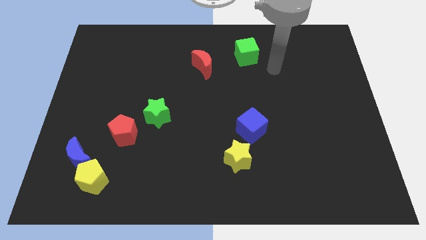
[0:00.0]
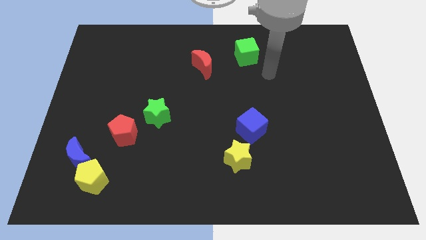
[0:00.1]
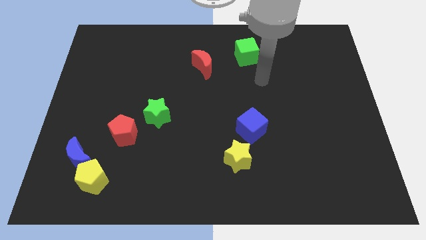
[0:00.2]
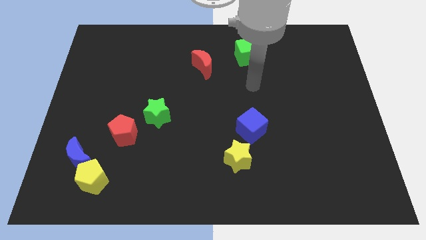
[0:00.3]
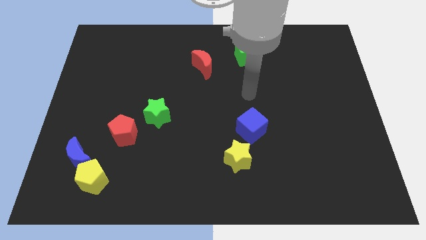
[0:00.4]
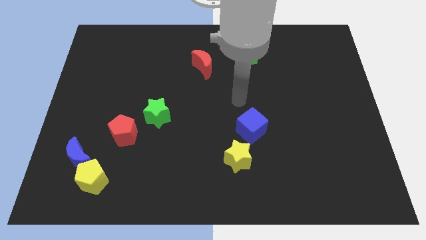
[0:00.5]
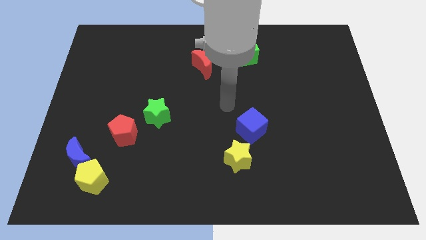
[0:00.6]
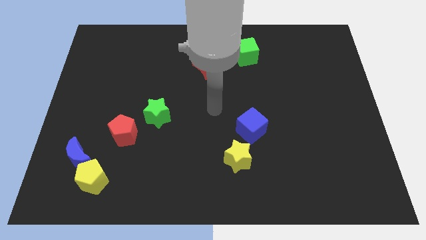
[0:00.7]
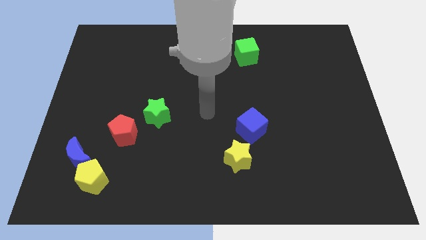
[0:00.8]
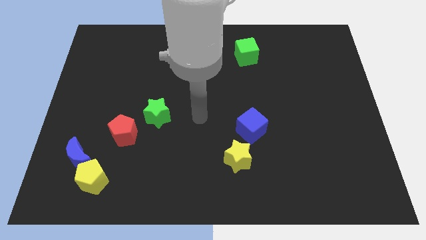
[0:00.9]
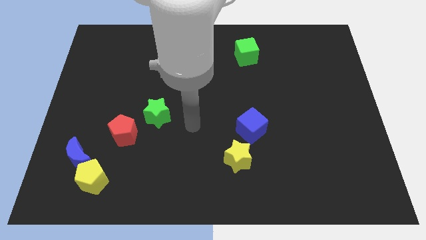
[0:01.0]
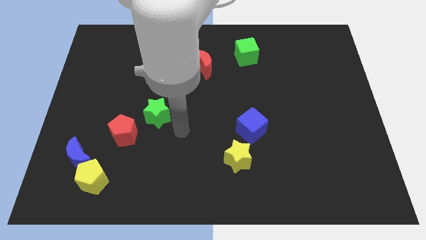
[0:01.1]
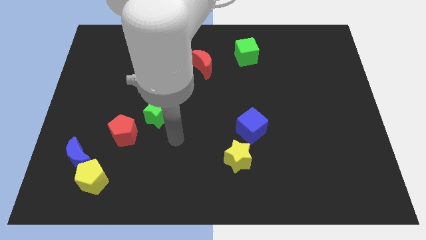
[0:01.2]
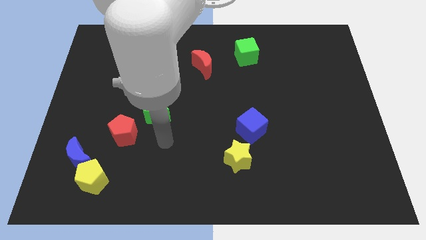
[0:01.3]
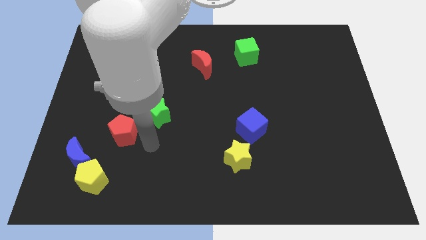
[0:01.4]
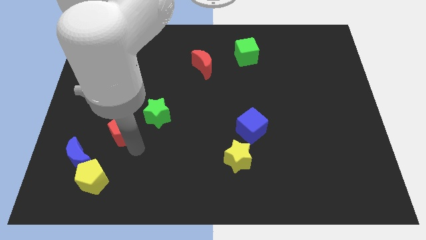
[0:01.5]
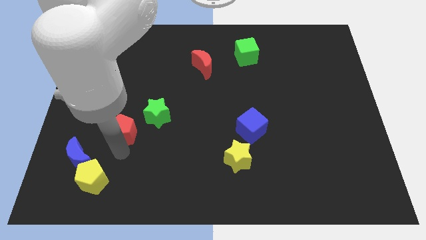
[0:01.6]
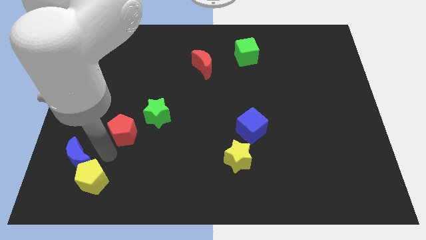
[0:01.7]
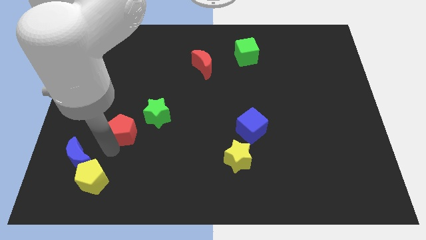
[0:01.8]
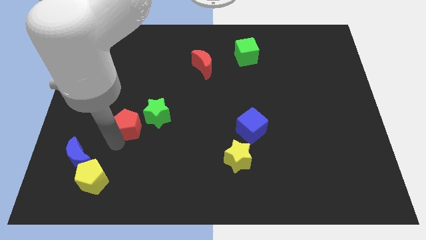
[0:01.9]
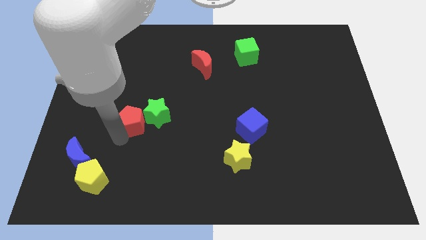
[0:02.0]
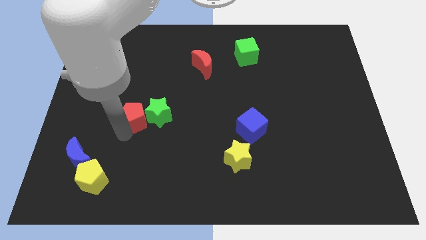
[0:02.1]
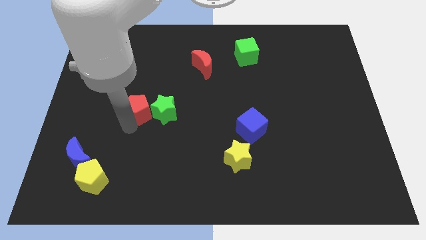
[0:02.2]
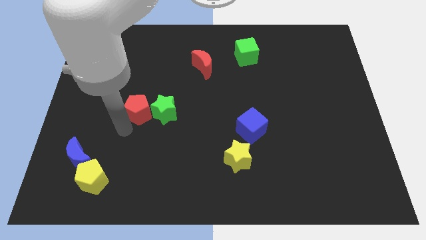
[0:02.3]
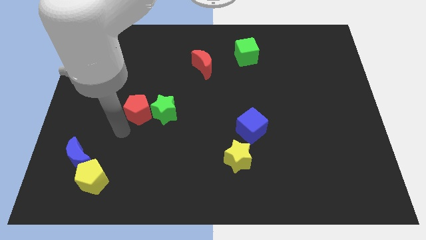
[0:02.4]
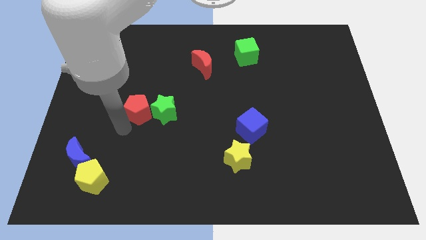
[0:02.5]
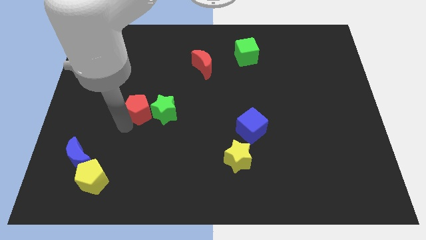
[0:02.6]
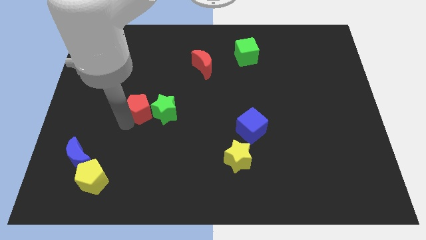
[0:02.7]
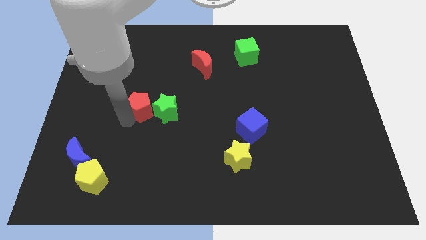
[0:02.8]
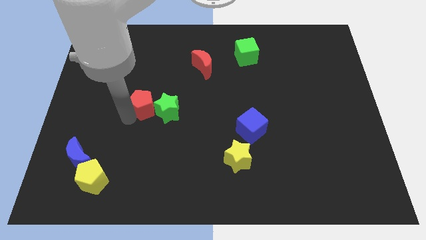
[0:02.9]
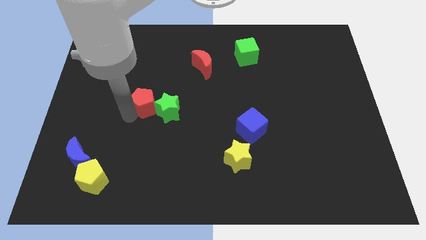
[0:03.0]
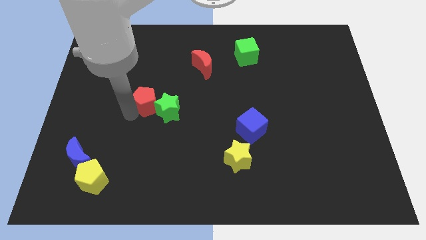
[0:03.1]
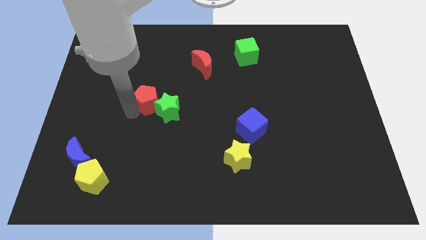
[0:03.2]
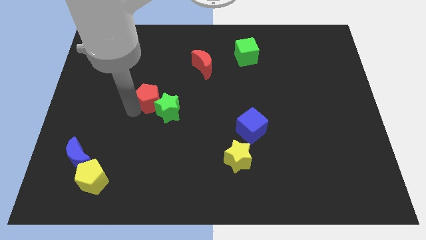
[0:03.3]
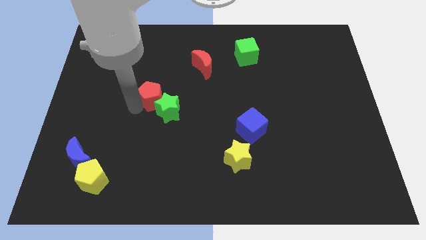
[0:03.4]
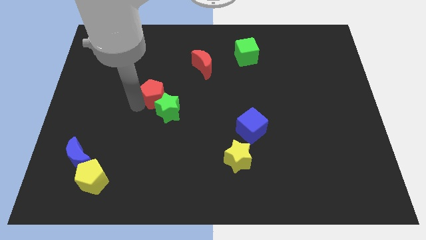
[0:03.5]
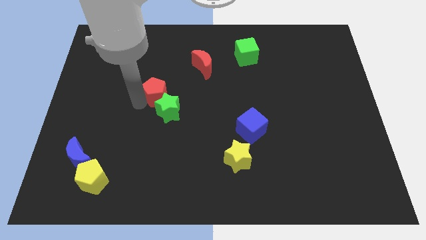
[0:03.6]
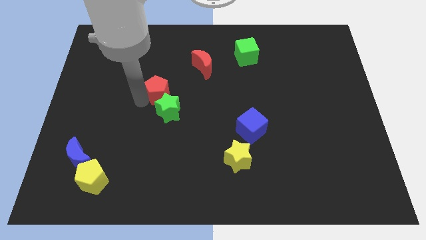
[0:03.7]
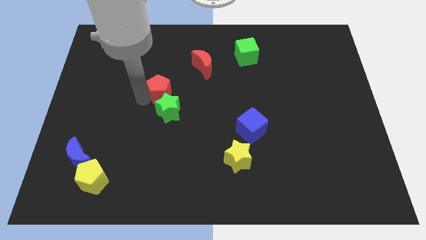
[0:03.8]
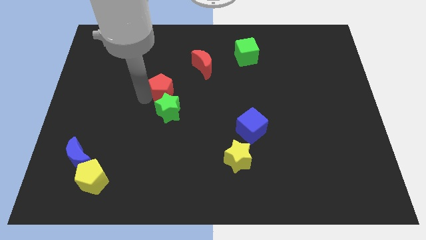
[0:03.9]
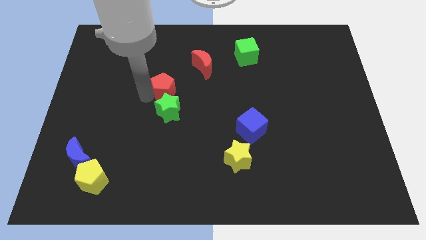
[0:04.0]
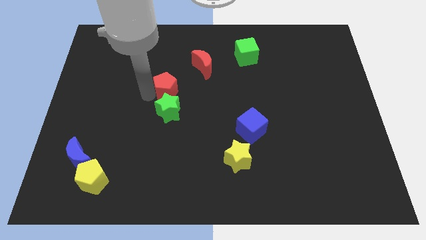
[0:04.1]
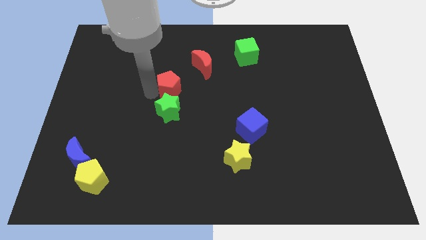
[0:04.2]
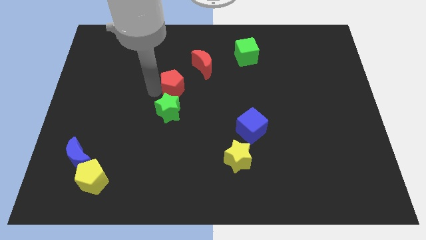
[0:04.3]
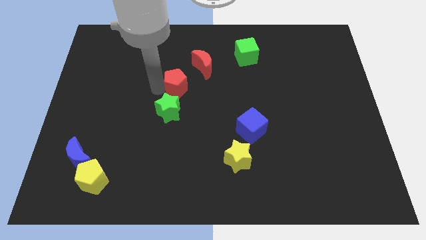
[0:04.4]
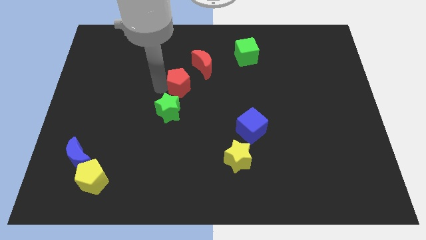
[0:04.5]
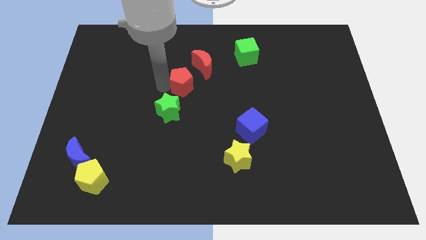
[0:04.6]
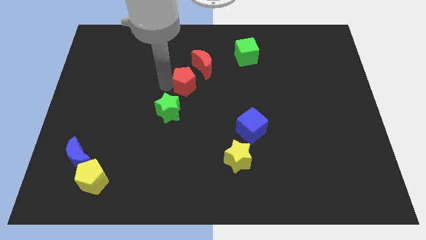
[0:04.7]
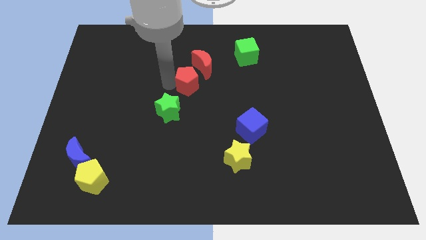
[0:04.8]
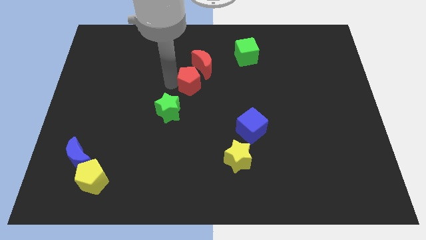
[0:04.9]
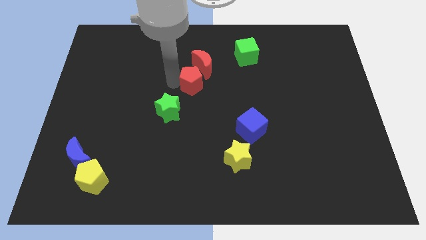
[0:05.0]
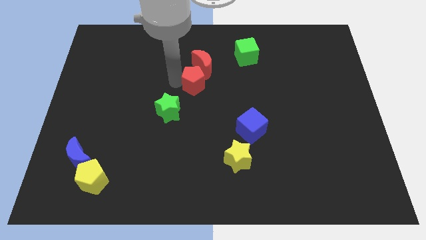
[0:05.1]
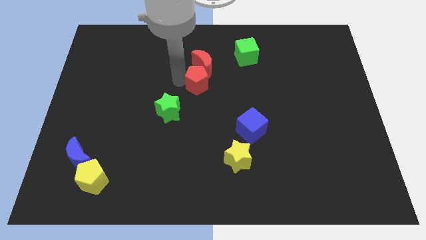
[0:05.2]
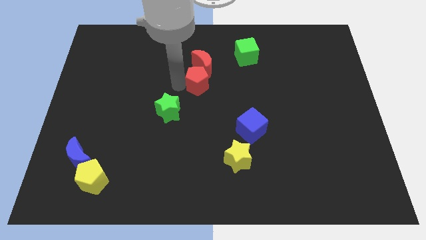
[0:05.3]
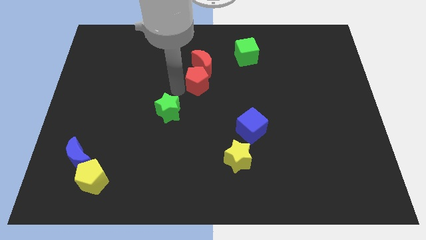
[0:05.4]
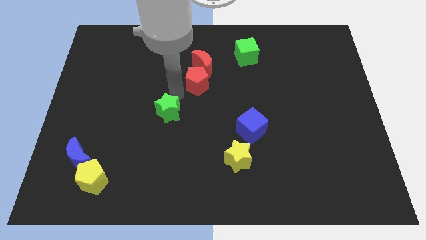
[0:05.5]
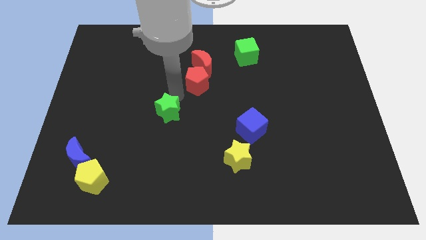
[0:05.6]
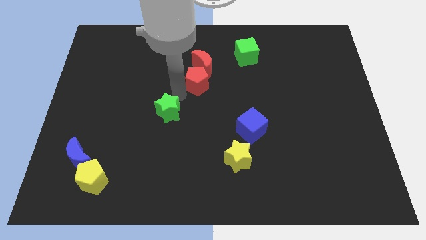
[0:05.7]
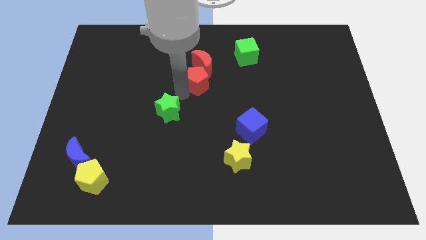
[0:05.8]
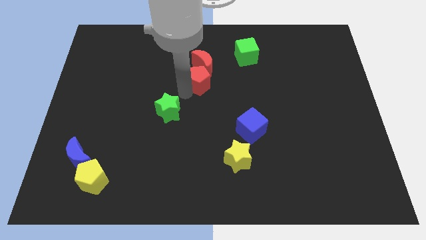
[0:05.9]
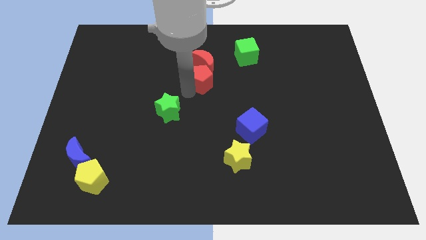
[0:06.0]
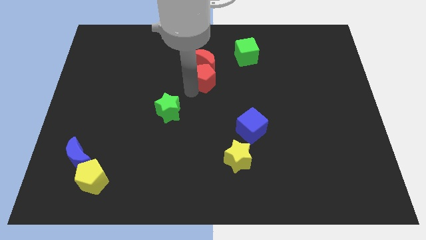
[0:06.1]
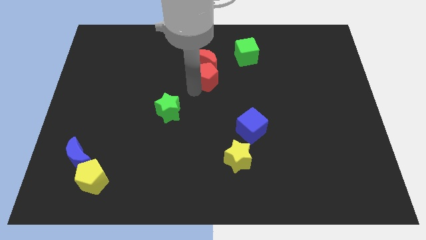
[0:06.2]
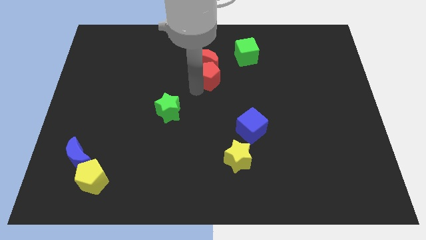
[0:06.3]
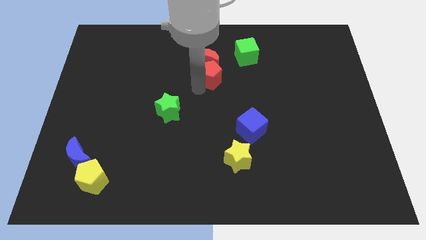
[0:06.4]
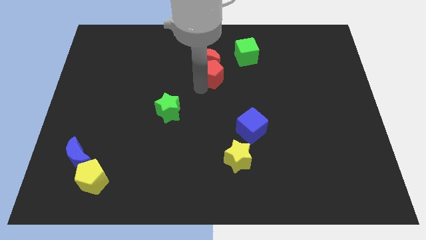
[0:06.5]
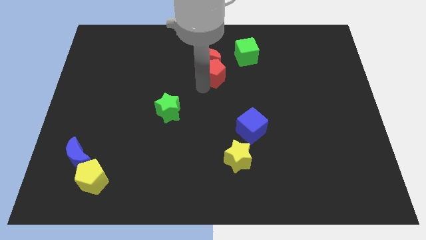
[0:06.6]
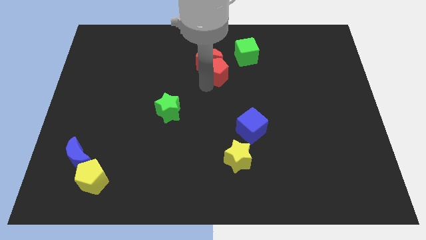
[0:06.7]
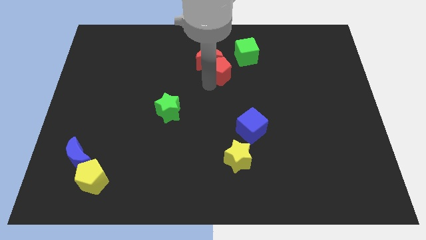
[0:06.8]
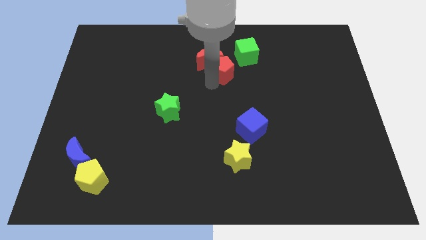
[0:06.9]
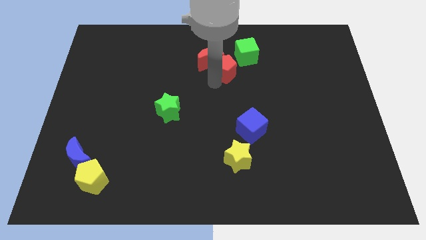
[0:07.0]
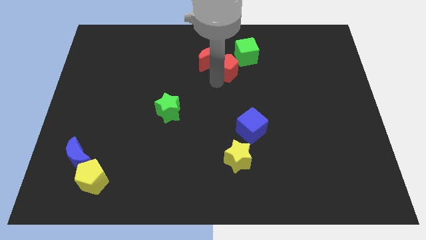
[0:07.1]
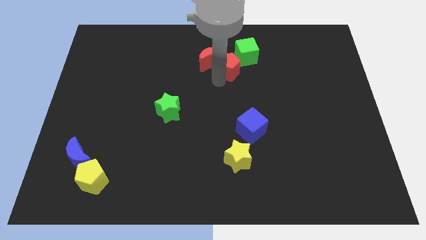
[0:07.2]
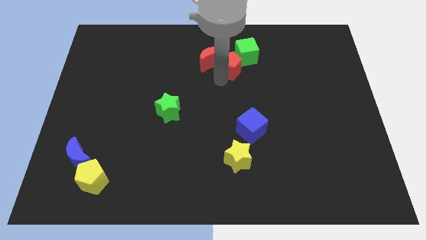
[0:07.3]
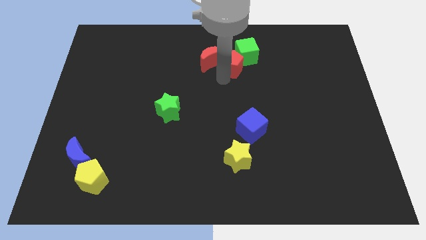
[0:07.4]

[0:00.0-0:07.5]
move the red pentagon close to the green cube

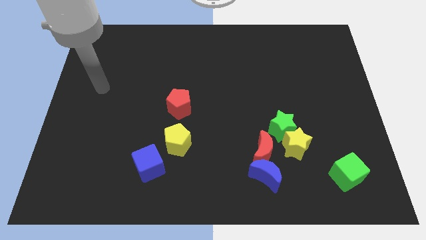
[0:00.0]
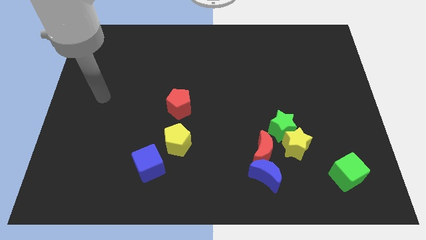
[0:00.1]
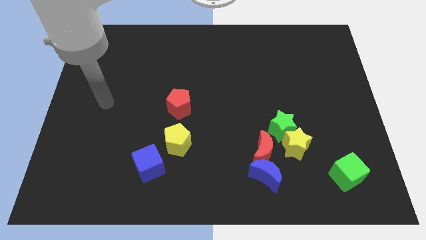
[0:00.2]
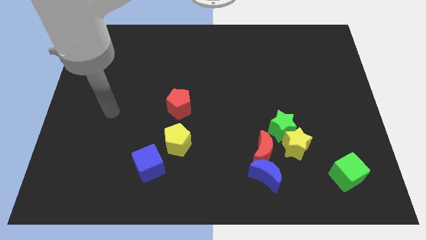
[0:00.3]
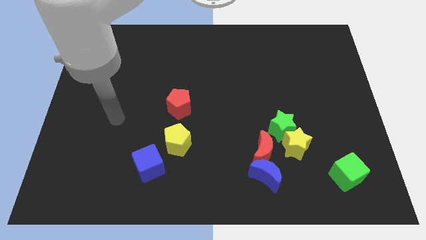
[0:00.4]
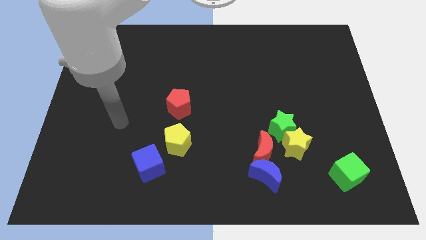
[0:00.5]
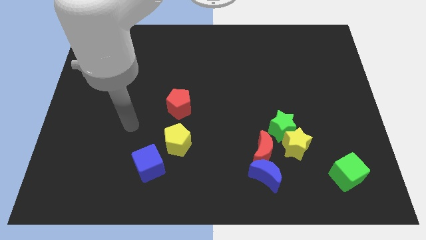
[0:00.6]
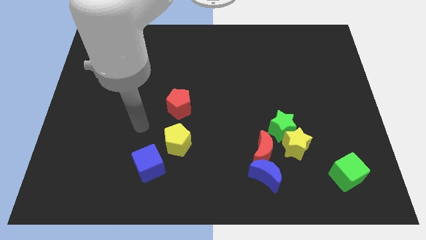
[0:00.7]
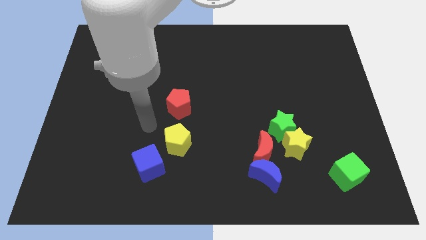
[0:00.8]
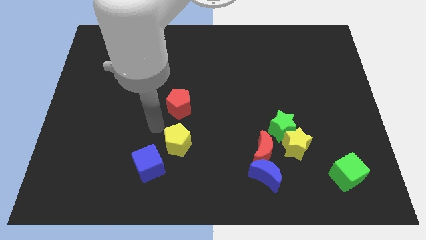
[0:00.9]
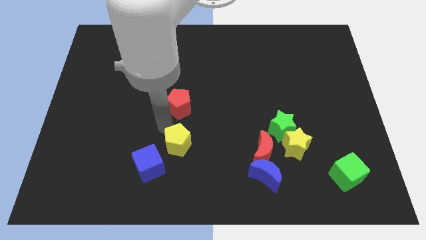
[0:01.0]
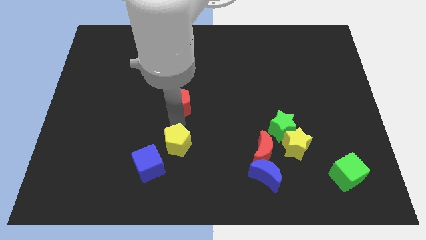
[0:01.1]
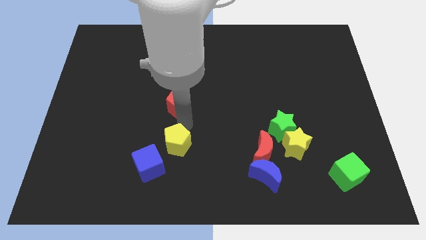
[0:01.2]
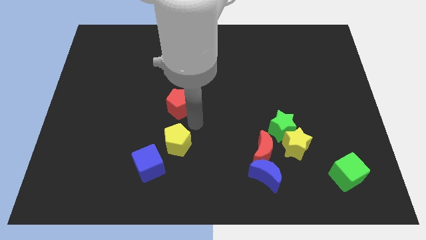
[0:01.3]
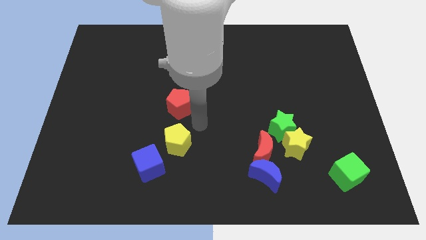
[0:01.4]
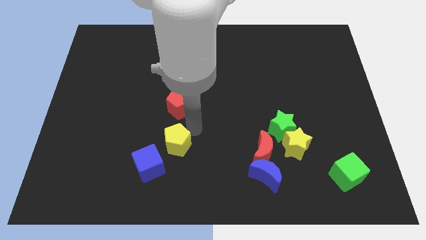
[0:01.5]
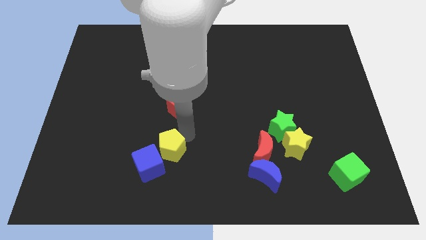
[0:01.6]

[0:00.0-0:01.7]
slide the yellow pentagon close to the blue cube
